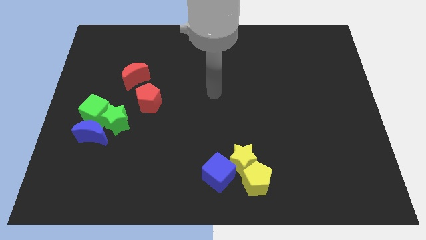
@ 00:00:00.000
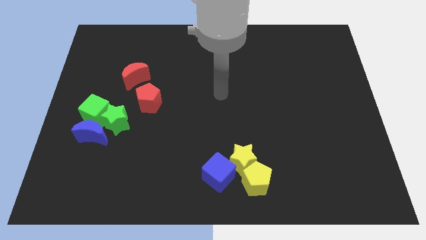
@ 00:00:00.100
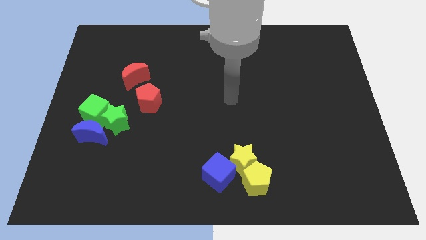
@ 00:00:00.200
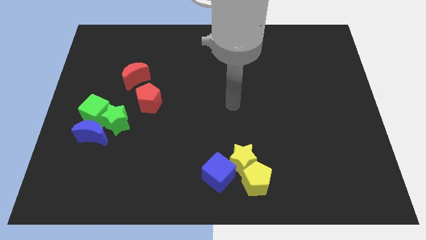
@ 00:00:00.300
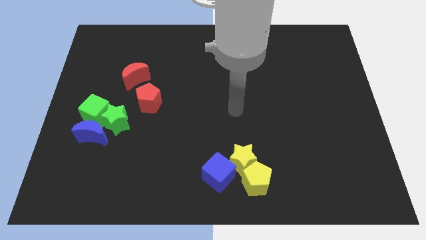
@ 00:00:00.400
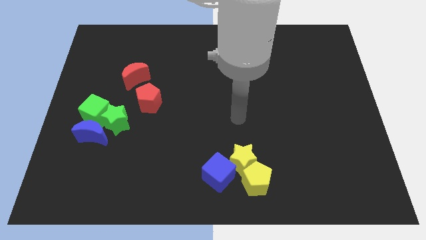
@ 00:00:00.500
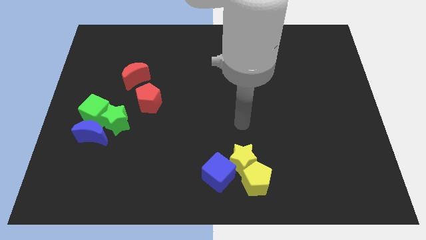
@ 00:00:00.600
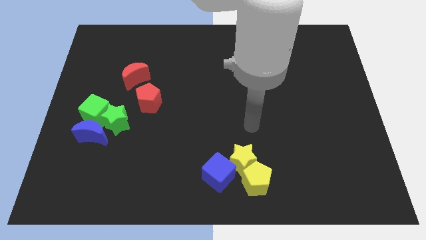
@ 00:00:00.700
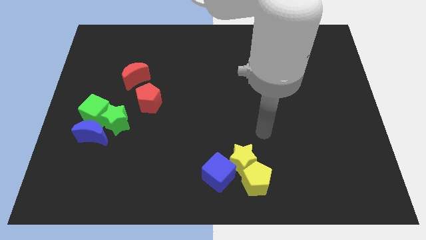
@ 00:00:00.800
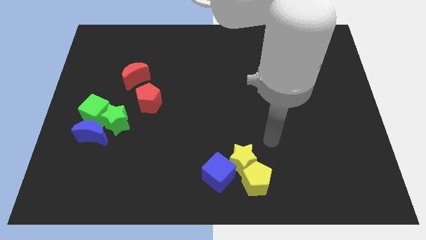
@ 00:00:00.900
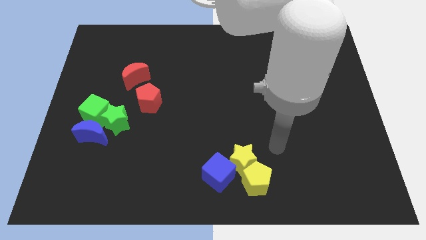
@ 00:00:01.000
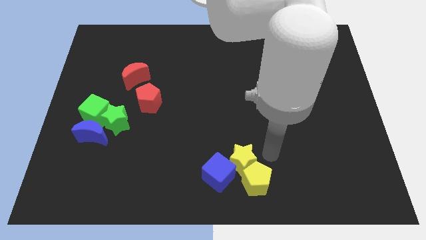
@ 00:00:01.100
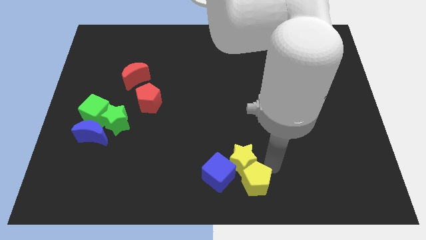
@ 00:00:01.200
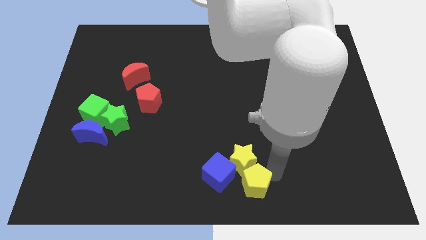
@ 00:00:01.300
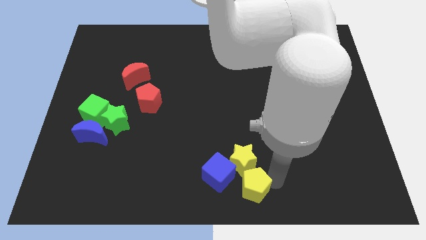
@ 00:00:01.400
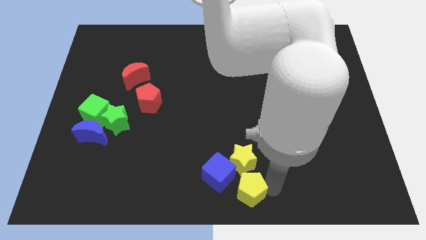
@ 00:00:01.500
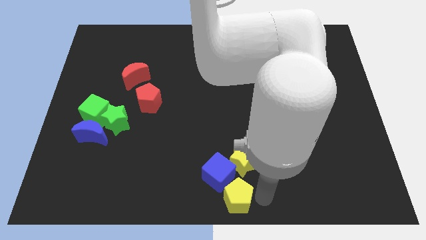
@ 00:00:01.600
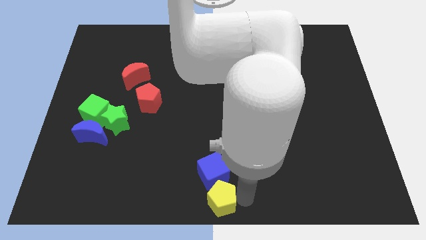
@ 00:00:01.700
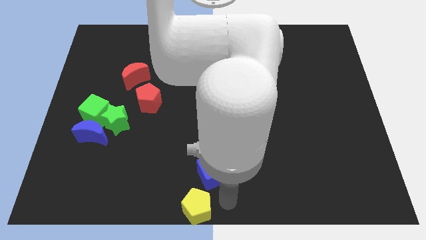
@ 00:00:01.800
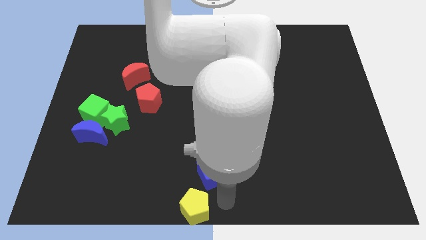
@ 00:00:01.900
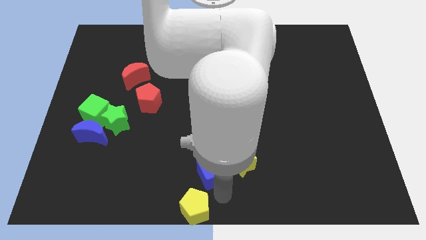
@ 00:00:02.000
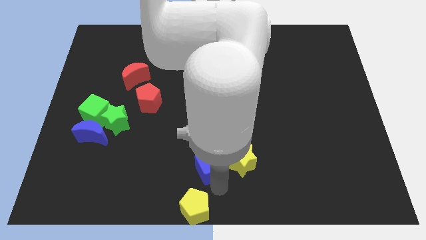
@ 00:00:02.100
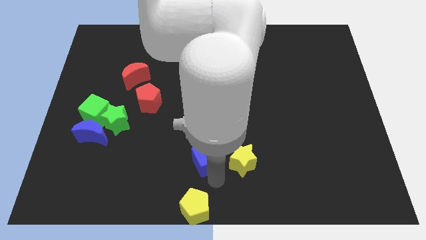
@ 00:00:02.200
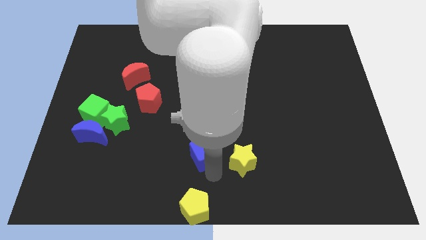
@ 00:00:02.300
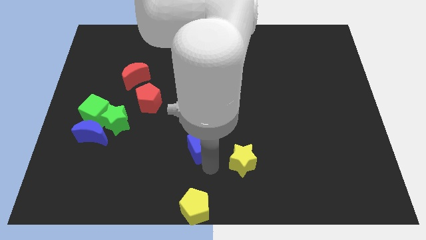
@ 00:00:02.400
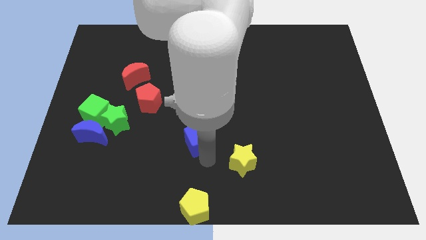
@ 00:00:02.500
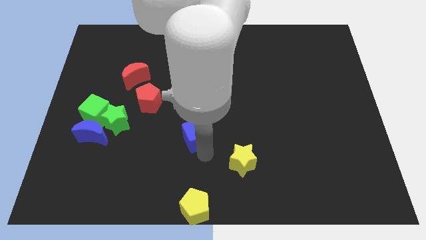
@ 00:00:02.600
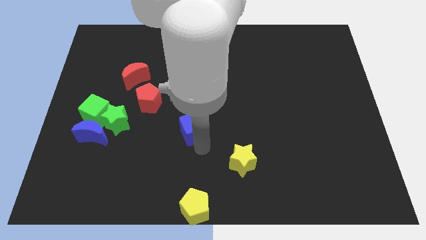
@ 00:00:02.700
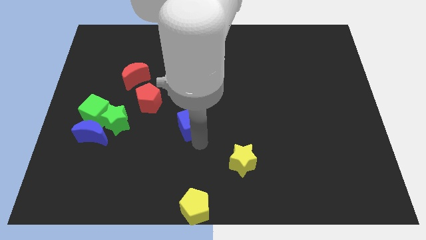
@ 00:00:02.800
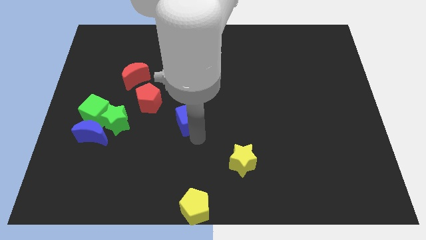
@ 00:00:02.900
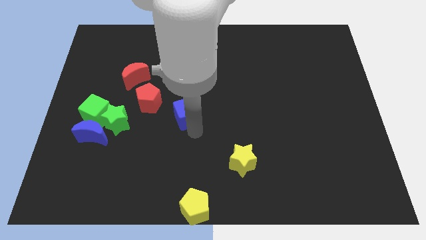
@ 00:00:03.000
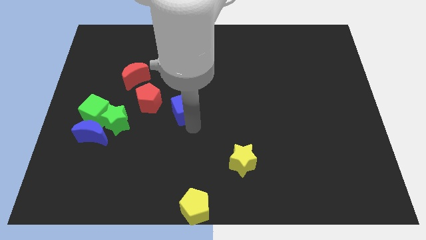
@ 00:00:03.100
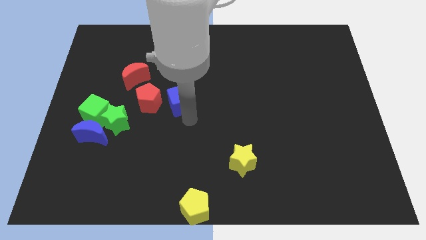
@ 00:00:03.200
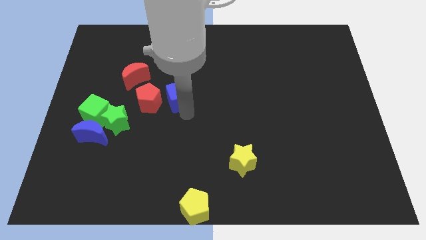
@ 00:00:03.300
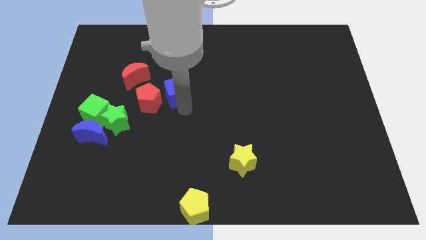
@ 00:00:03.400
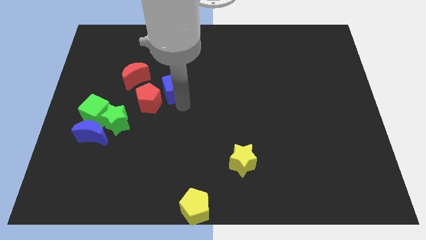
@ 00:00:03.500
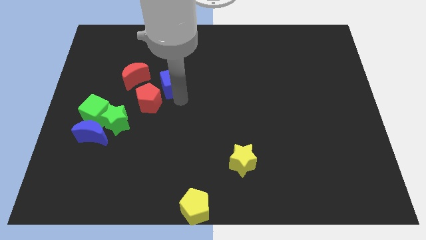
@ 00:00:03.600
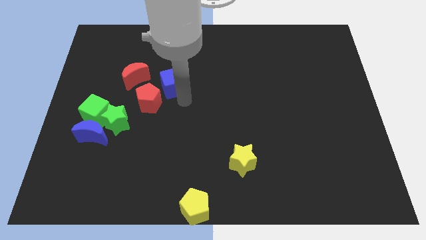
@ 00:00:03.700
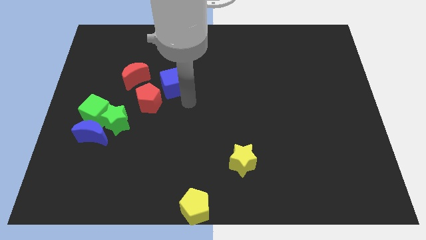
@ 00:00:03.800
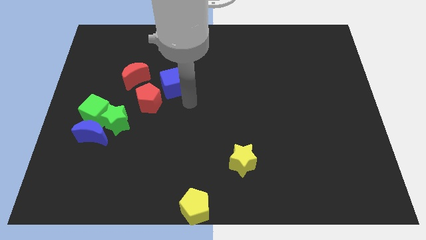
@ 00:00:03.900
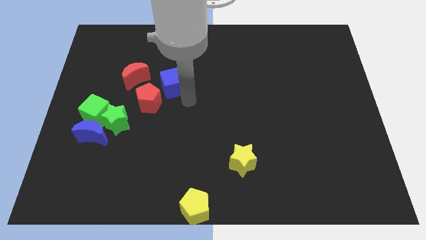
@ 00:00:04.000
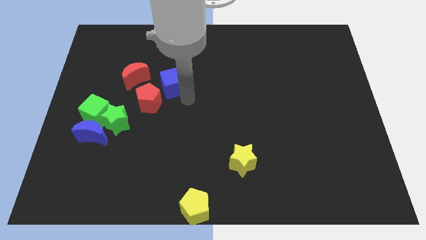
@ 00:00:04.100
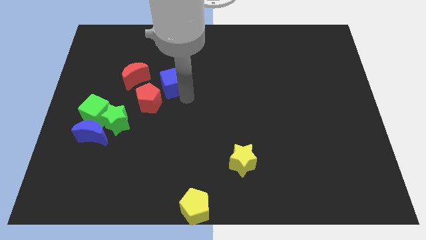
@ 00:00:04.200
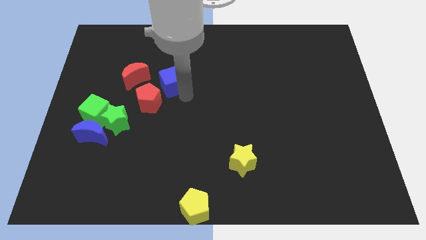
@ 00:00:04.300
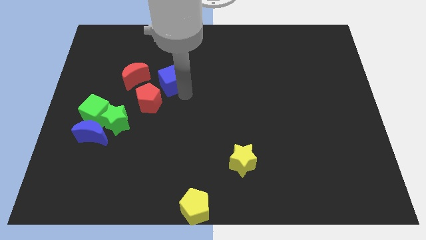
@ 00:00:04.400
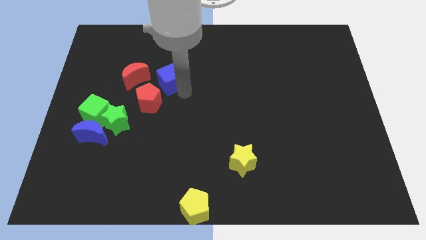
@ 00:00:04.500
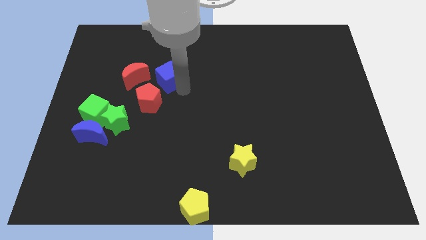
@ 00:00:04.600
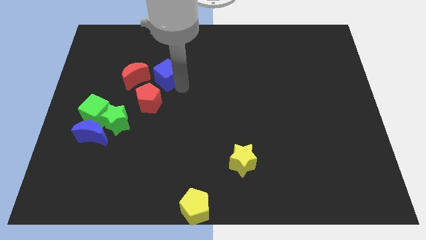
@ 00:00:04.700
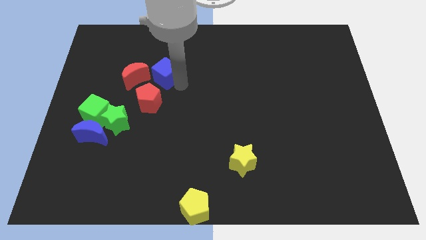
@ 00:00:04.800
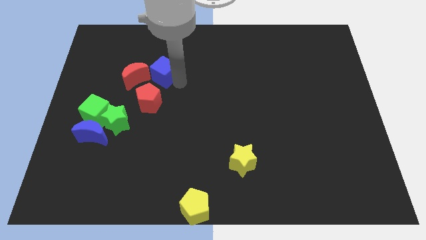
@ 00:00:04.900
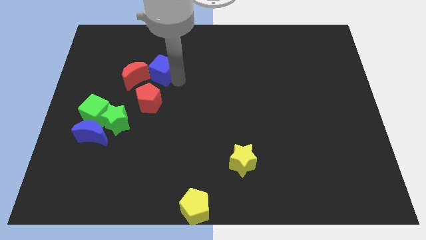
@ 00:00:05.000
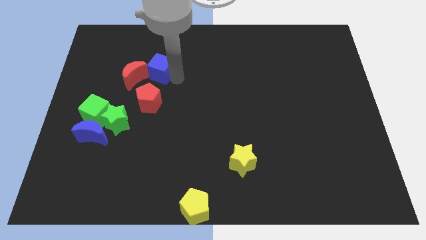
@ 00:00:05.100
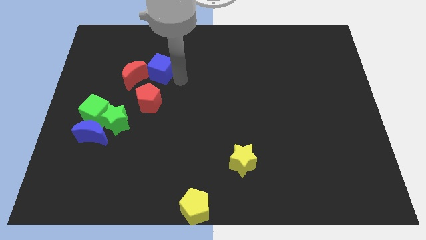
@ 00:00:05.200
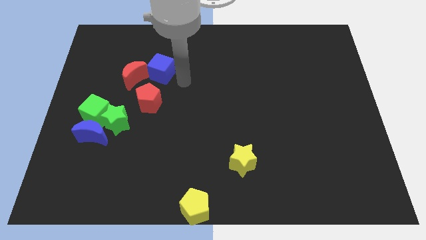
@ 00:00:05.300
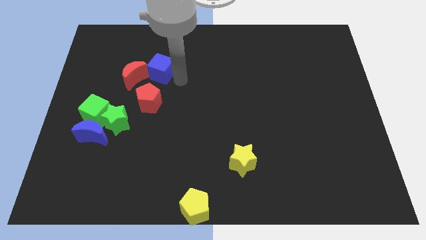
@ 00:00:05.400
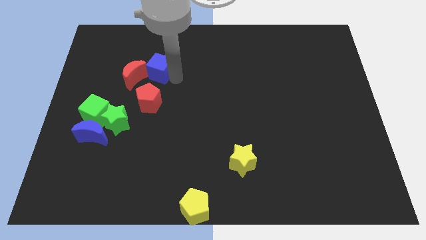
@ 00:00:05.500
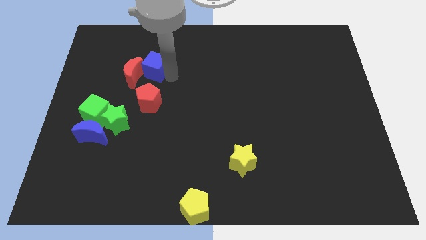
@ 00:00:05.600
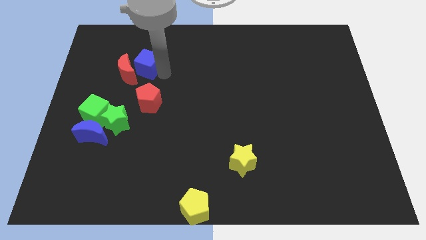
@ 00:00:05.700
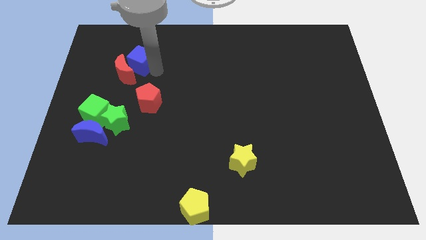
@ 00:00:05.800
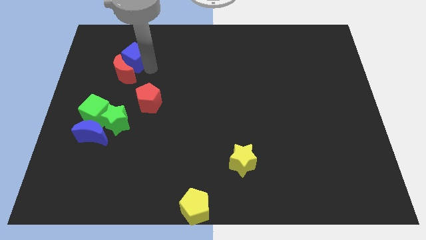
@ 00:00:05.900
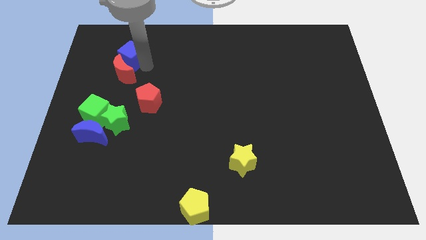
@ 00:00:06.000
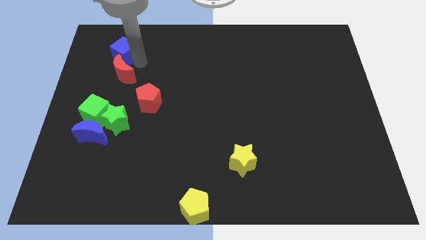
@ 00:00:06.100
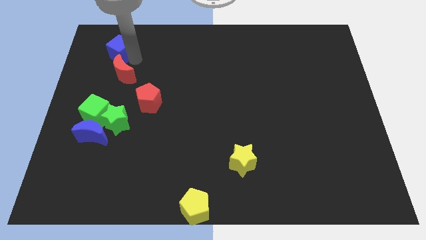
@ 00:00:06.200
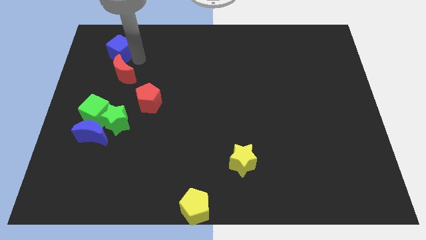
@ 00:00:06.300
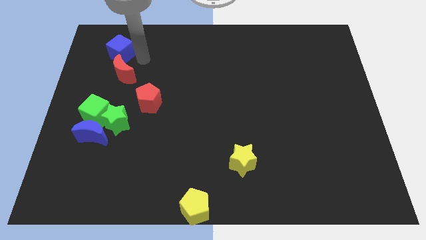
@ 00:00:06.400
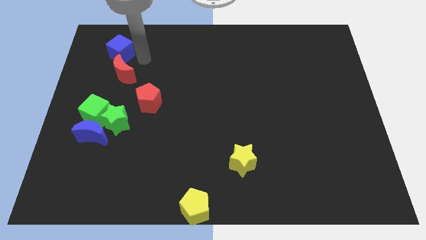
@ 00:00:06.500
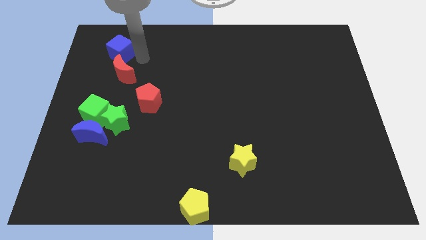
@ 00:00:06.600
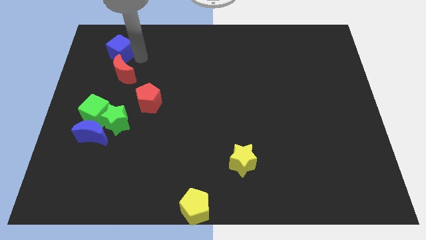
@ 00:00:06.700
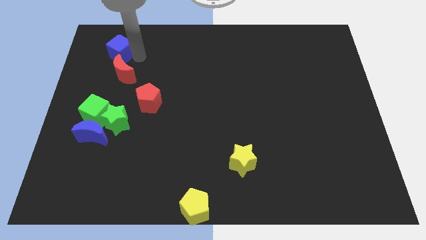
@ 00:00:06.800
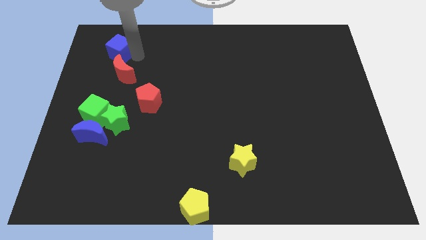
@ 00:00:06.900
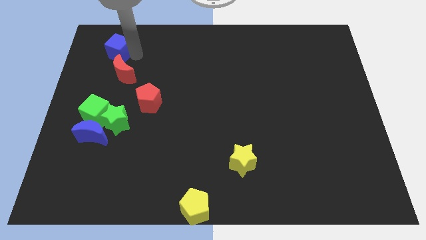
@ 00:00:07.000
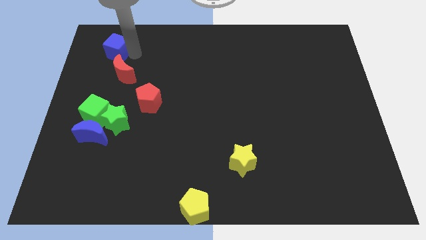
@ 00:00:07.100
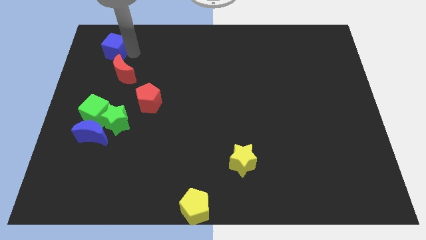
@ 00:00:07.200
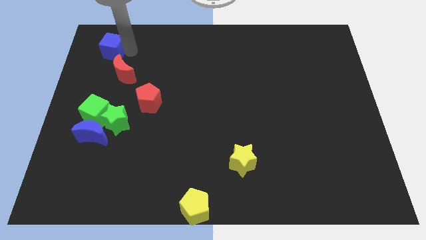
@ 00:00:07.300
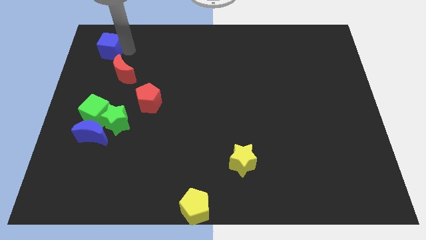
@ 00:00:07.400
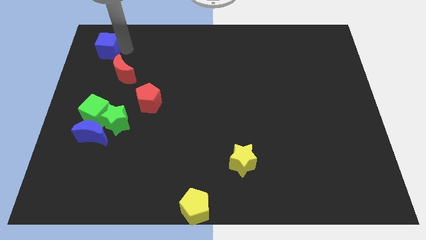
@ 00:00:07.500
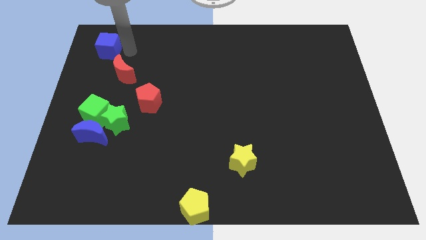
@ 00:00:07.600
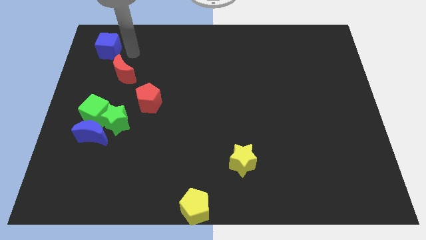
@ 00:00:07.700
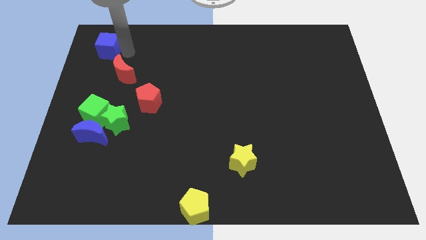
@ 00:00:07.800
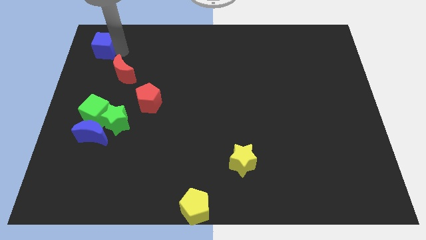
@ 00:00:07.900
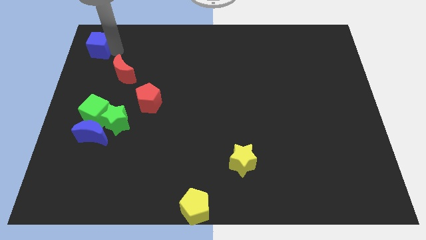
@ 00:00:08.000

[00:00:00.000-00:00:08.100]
push the blue cube to the top left
